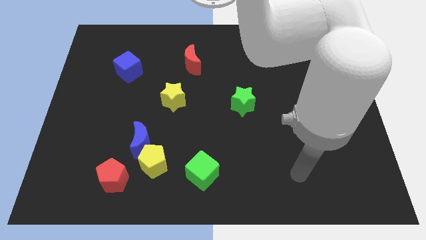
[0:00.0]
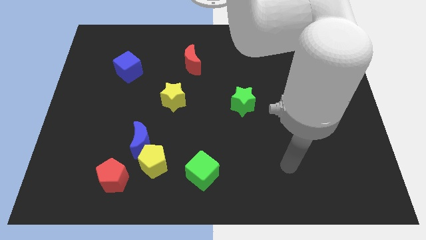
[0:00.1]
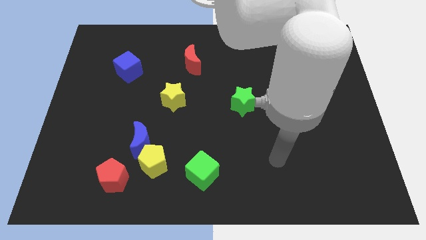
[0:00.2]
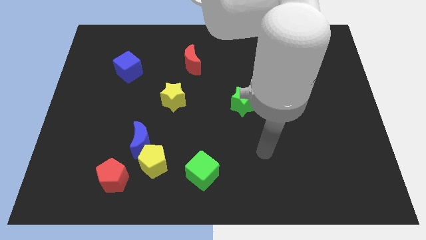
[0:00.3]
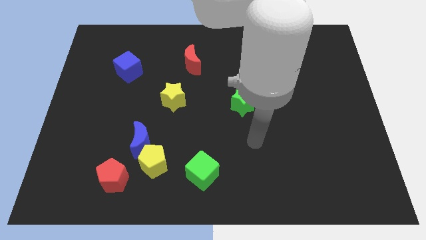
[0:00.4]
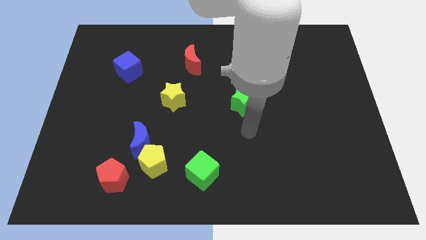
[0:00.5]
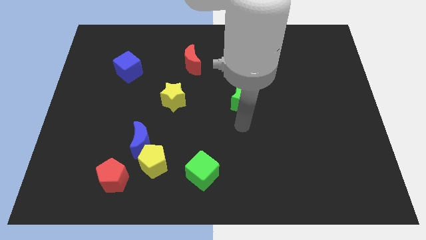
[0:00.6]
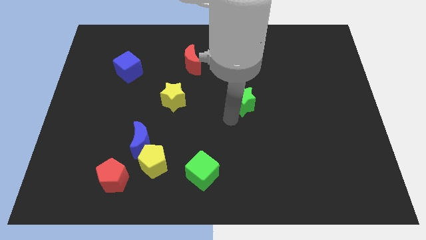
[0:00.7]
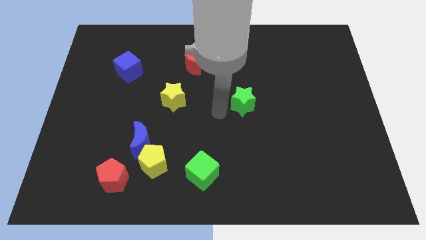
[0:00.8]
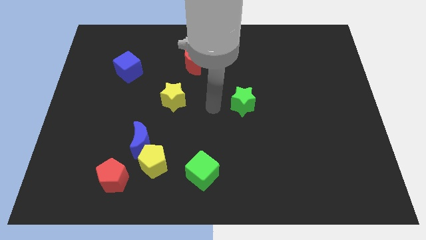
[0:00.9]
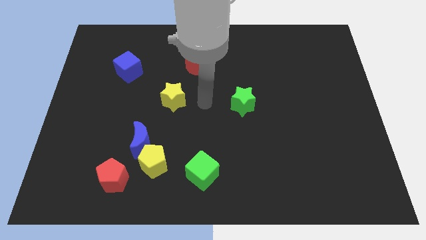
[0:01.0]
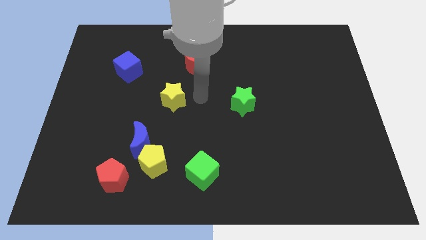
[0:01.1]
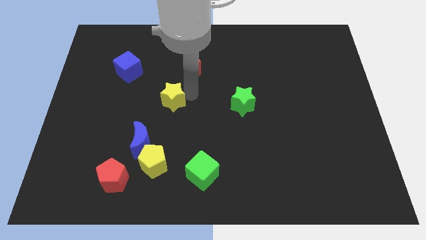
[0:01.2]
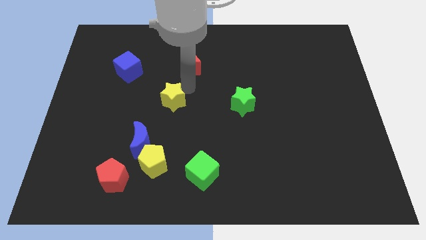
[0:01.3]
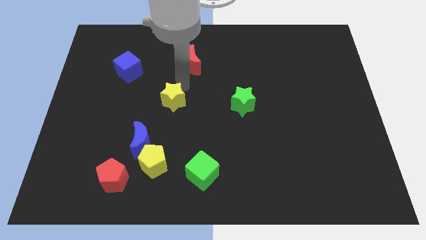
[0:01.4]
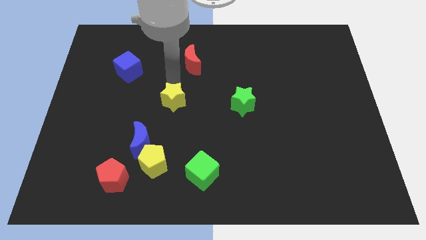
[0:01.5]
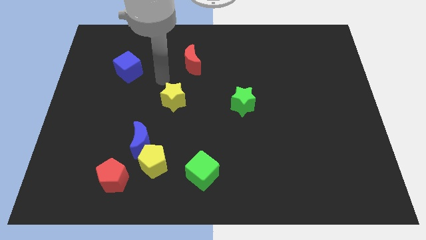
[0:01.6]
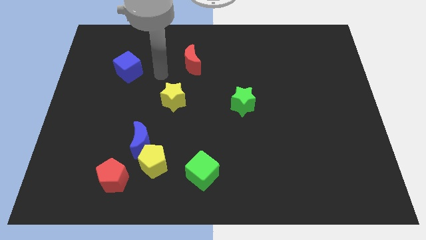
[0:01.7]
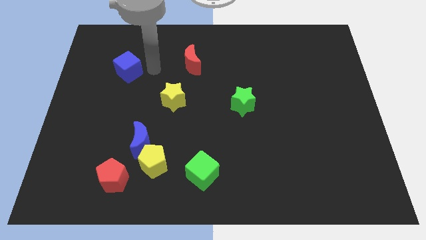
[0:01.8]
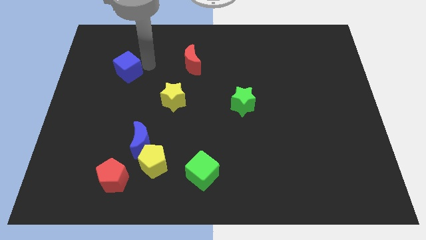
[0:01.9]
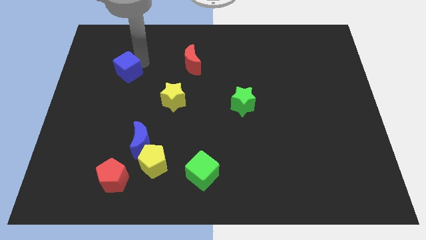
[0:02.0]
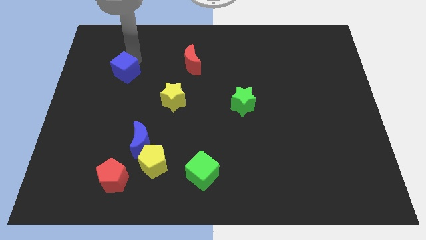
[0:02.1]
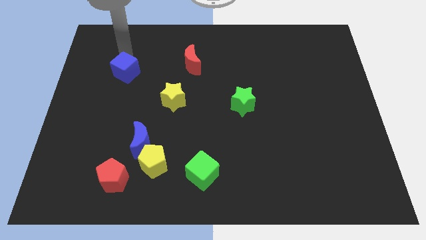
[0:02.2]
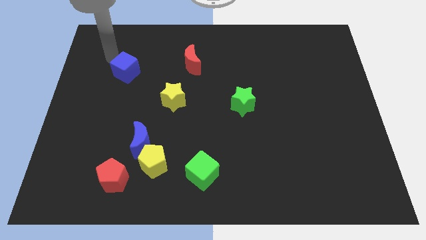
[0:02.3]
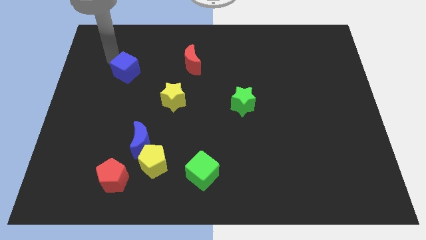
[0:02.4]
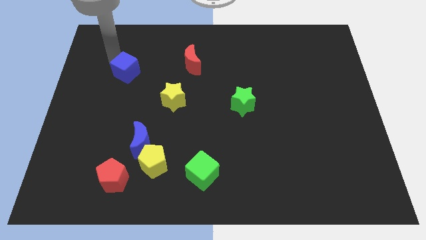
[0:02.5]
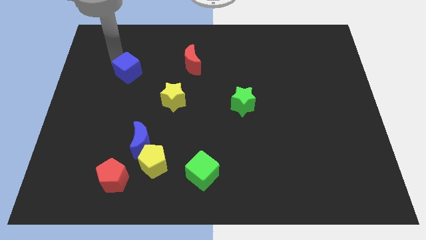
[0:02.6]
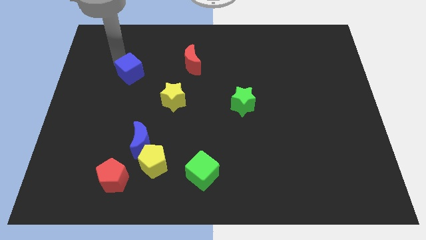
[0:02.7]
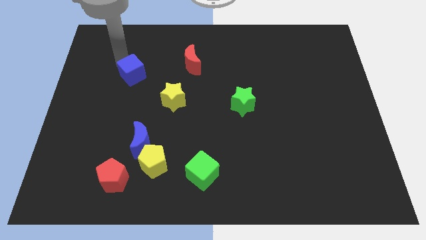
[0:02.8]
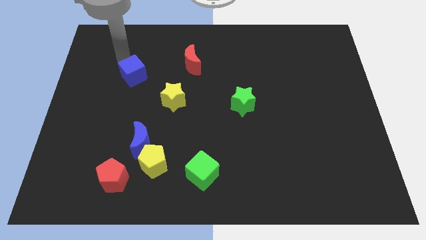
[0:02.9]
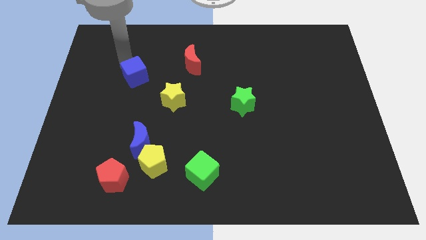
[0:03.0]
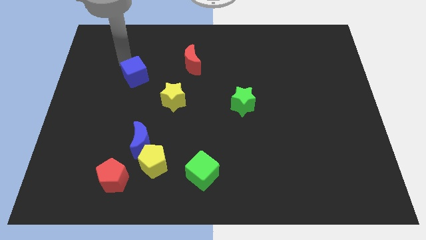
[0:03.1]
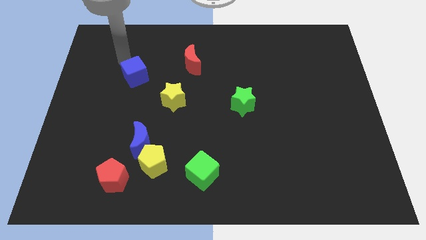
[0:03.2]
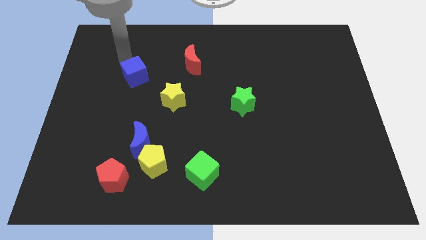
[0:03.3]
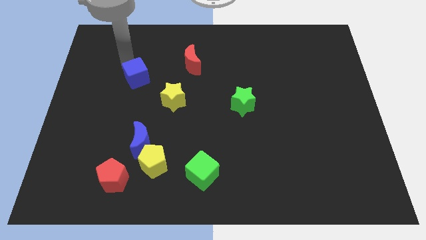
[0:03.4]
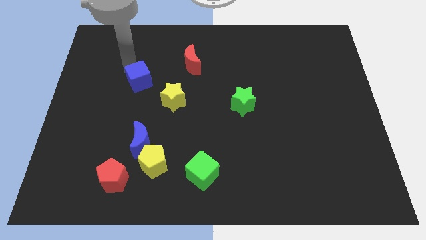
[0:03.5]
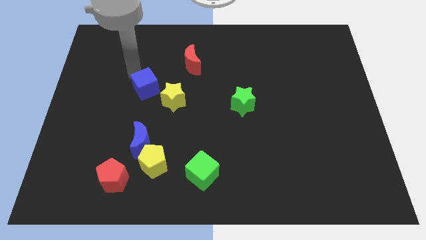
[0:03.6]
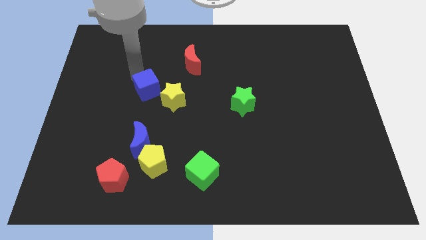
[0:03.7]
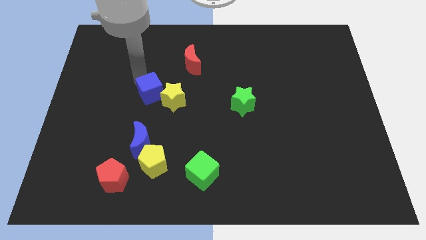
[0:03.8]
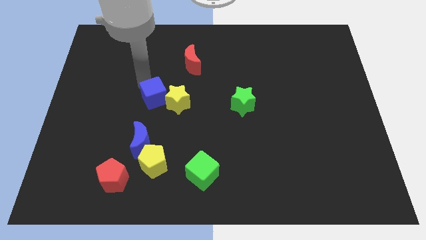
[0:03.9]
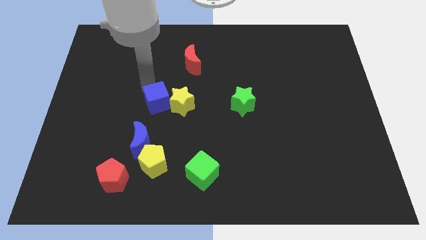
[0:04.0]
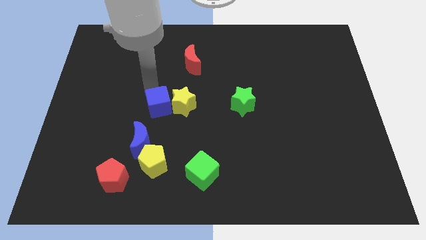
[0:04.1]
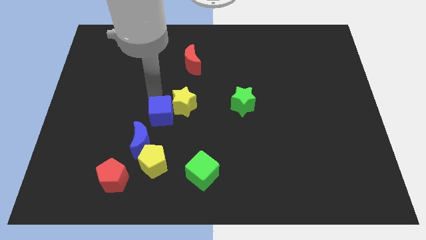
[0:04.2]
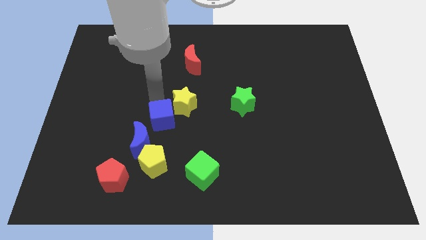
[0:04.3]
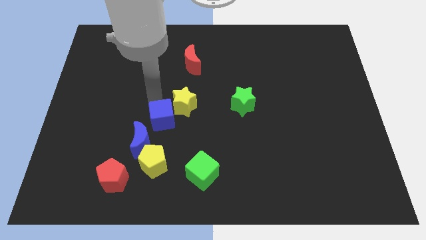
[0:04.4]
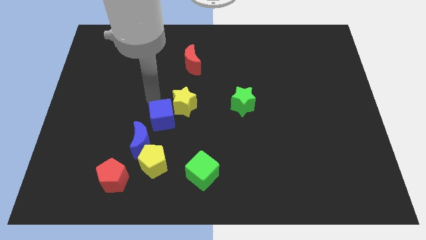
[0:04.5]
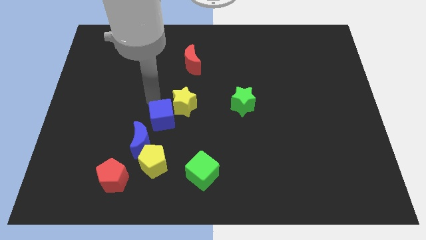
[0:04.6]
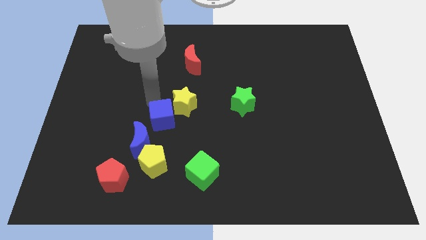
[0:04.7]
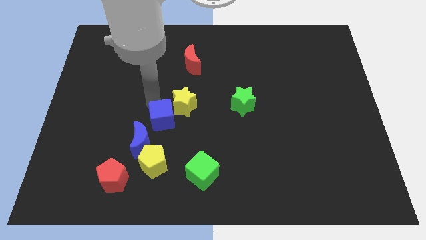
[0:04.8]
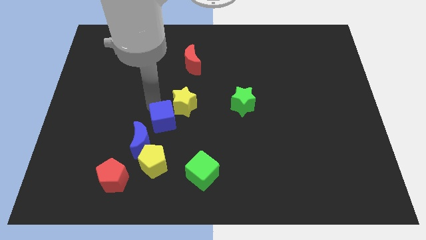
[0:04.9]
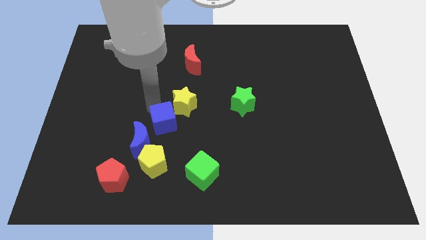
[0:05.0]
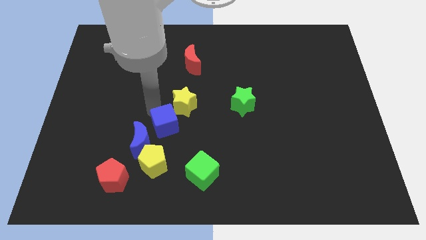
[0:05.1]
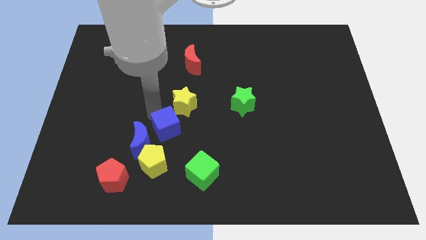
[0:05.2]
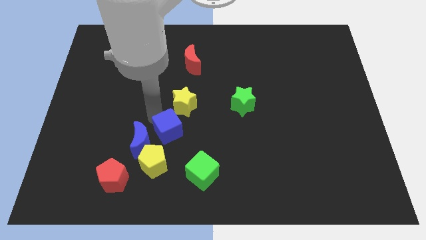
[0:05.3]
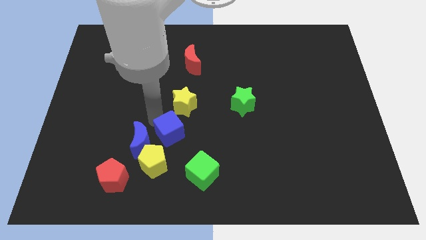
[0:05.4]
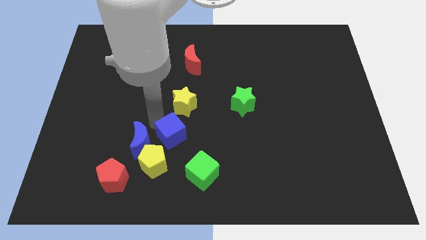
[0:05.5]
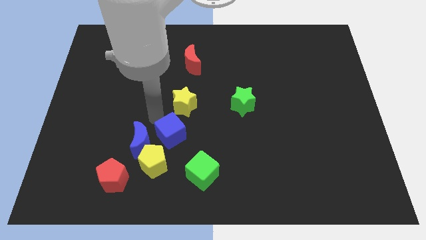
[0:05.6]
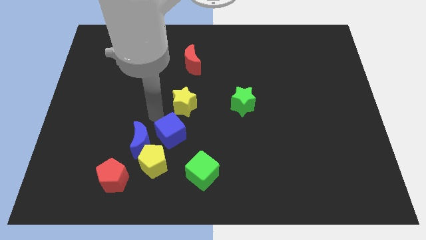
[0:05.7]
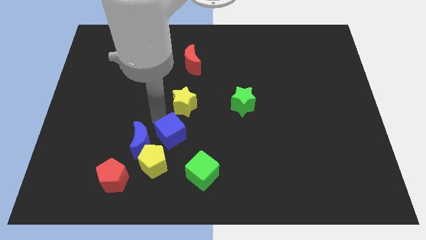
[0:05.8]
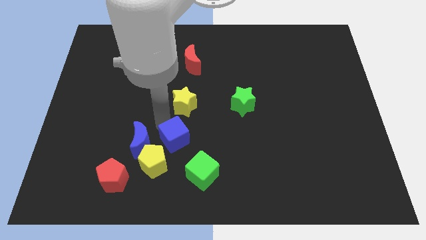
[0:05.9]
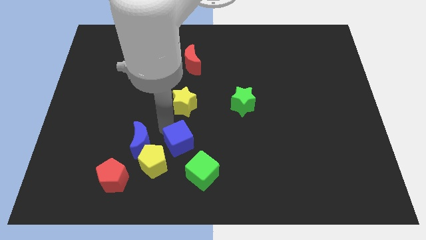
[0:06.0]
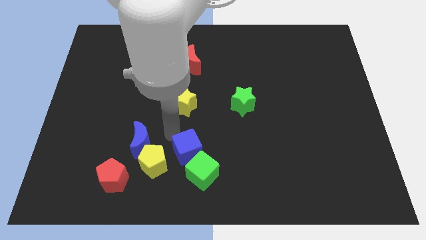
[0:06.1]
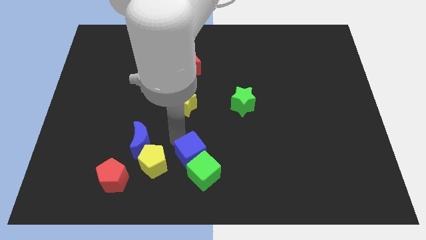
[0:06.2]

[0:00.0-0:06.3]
slide the blue cube close to the green cube
